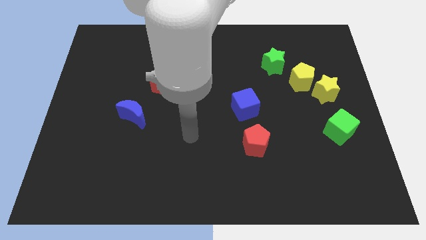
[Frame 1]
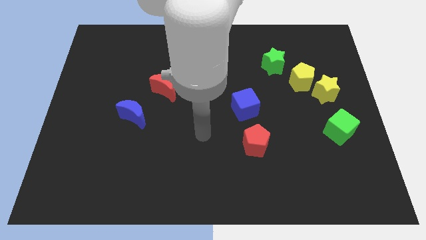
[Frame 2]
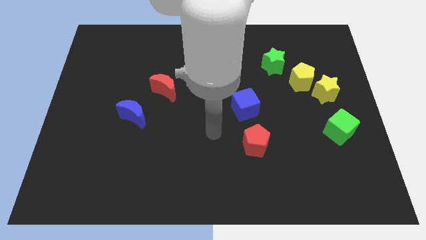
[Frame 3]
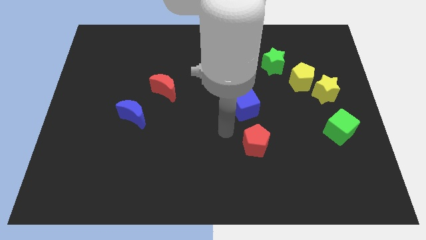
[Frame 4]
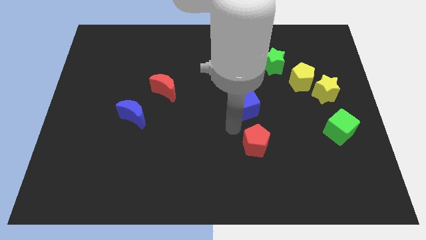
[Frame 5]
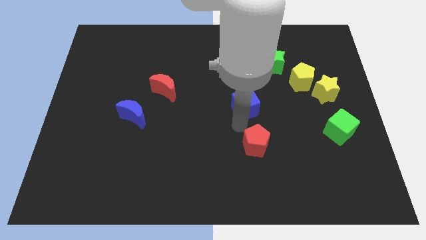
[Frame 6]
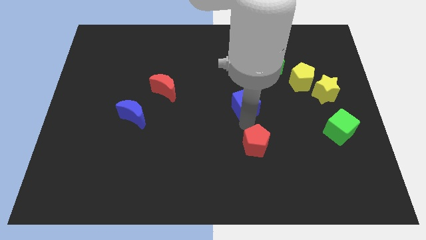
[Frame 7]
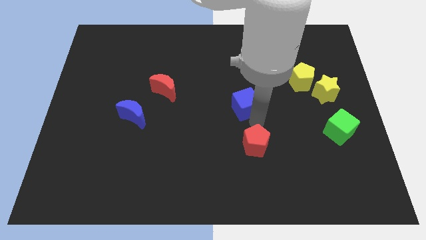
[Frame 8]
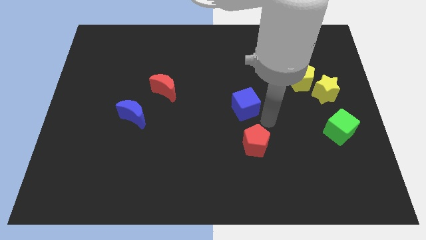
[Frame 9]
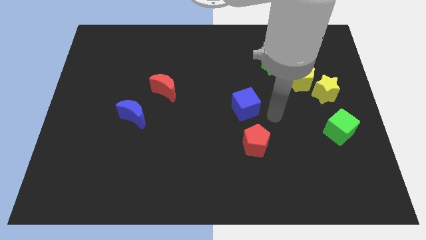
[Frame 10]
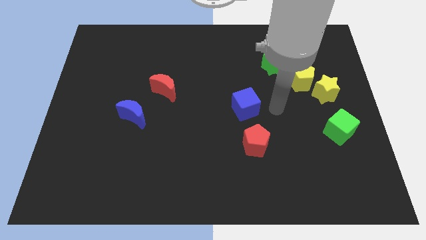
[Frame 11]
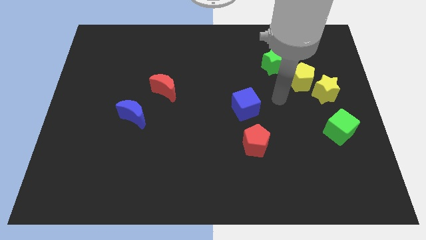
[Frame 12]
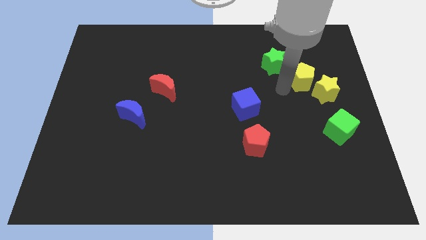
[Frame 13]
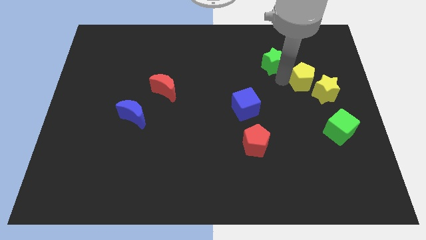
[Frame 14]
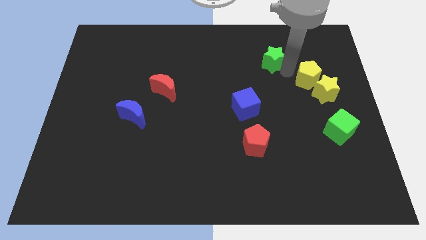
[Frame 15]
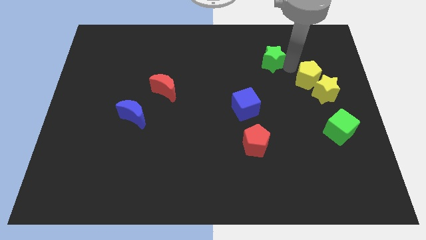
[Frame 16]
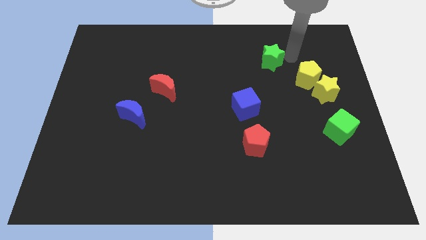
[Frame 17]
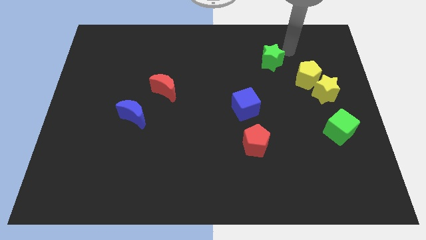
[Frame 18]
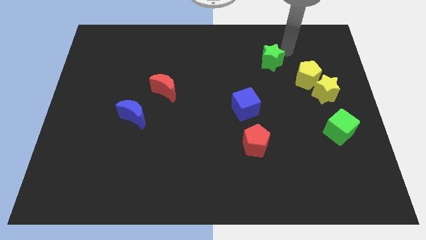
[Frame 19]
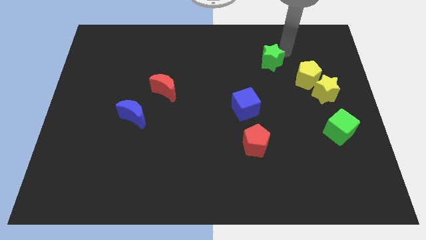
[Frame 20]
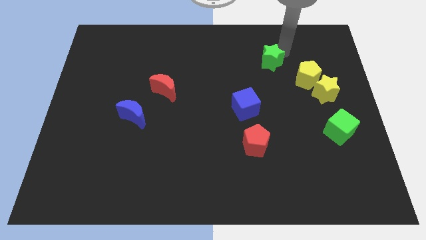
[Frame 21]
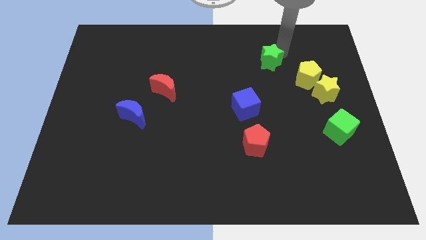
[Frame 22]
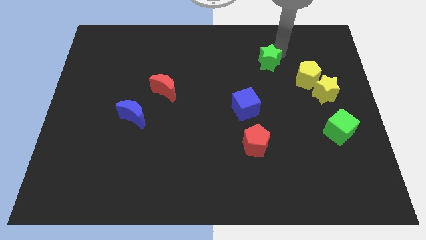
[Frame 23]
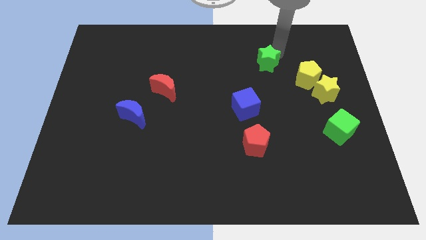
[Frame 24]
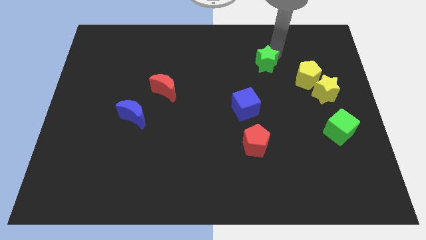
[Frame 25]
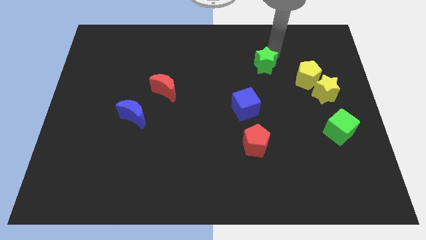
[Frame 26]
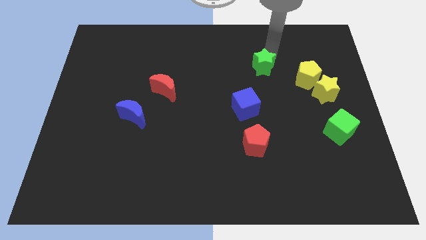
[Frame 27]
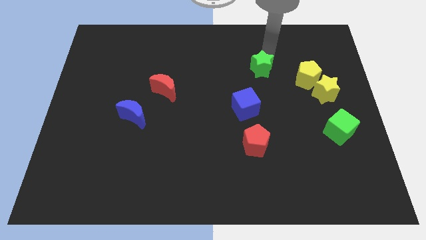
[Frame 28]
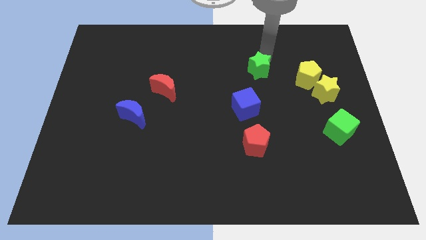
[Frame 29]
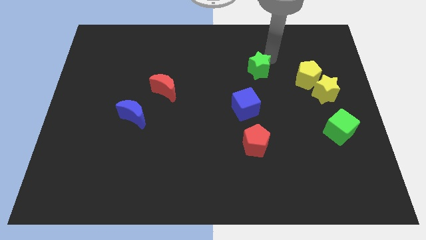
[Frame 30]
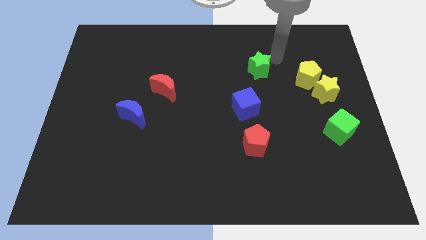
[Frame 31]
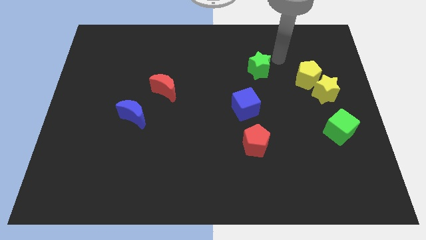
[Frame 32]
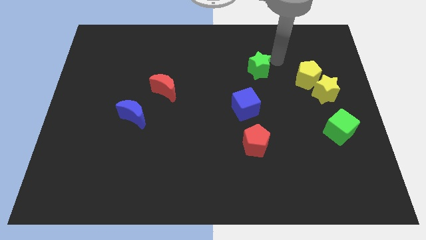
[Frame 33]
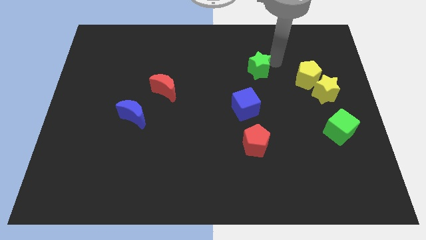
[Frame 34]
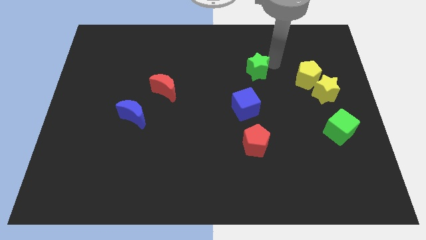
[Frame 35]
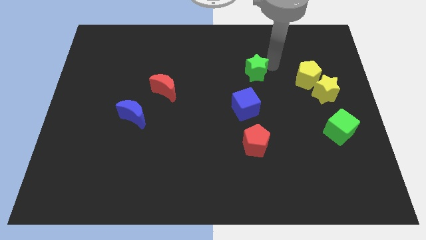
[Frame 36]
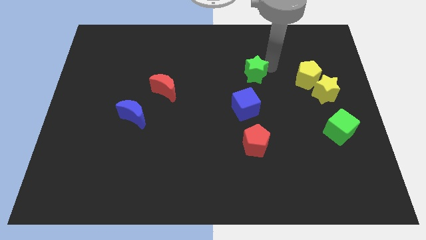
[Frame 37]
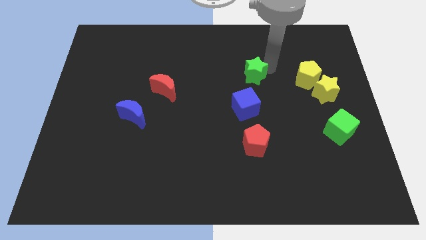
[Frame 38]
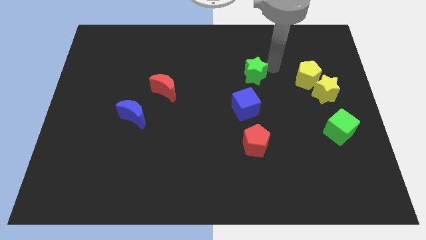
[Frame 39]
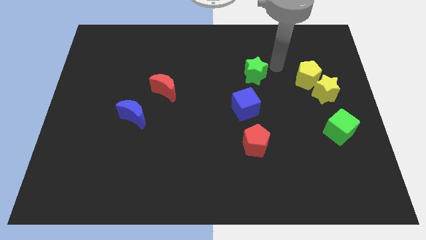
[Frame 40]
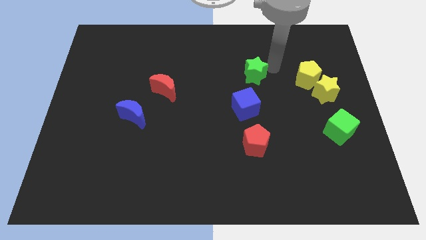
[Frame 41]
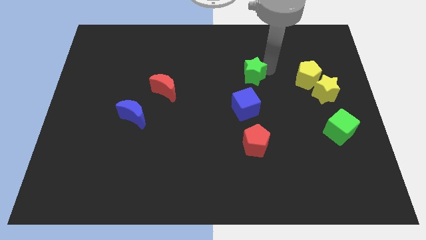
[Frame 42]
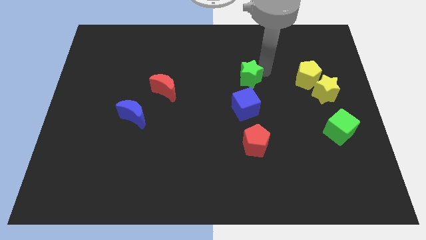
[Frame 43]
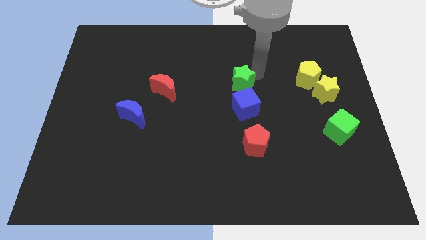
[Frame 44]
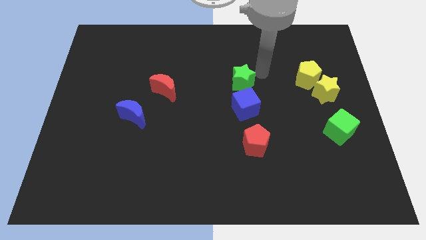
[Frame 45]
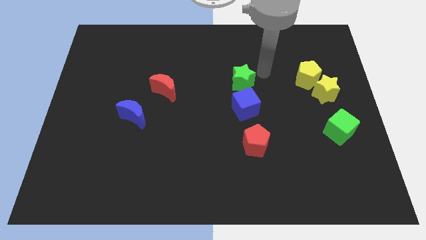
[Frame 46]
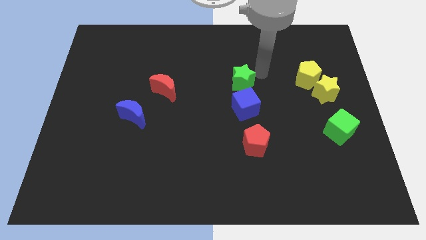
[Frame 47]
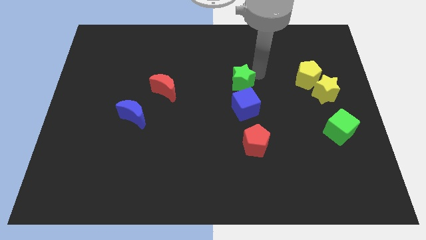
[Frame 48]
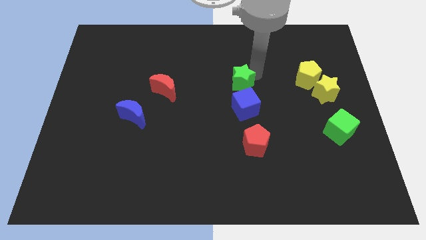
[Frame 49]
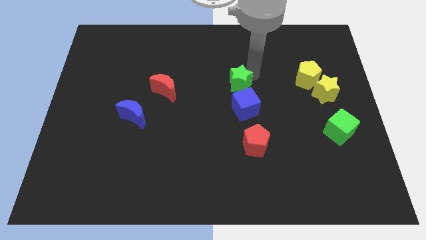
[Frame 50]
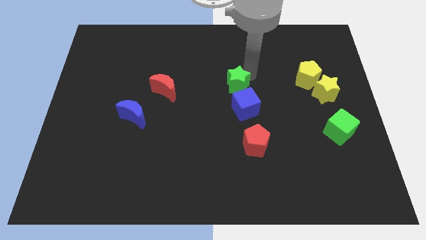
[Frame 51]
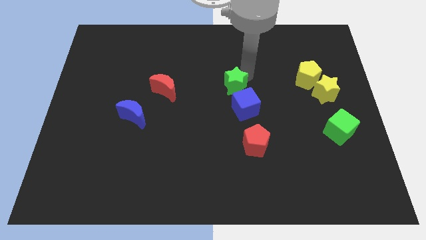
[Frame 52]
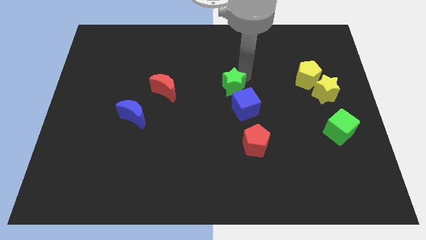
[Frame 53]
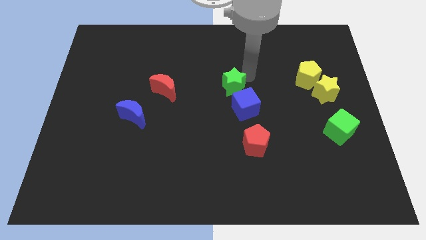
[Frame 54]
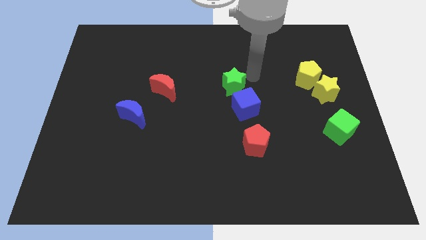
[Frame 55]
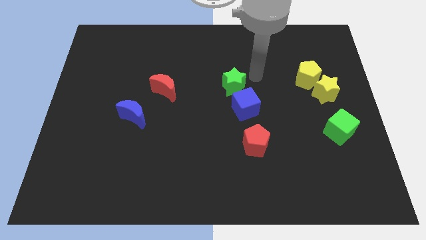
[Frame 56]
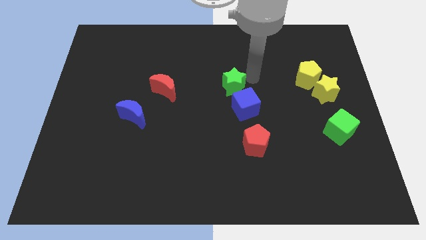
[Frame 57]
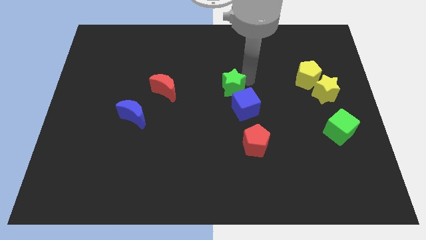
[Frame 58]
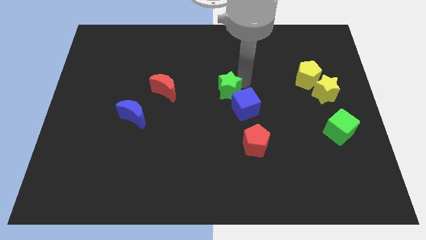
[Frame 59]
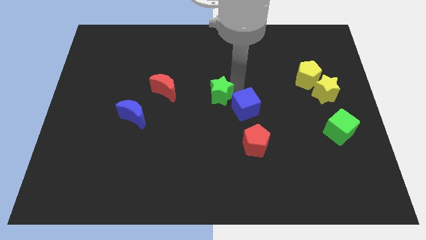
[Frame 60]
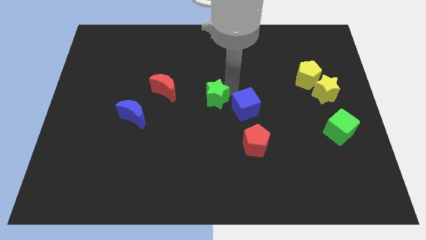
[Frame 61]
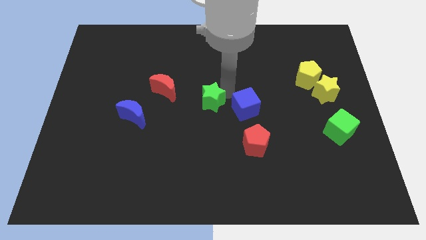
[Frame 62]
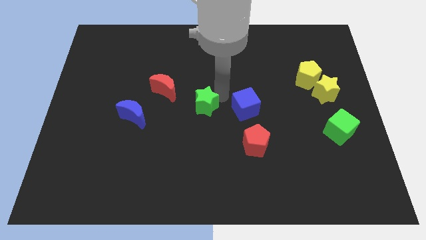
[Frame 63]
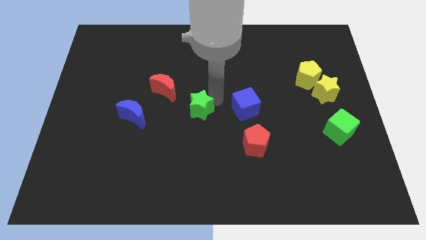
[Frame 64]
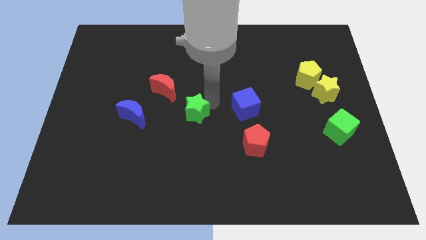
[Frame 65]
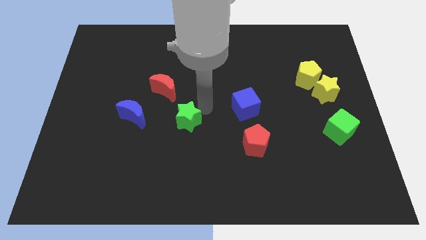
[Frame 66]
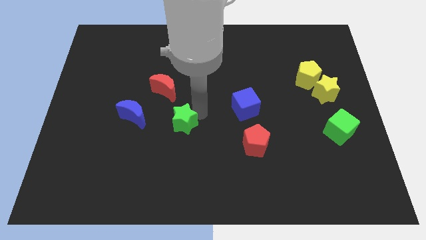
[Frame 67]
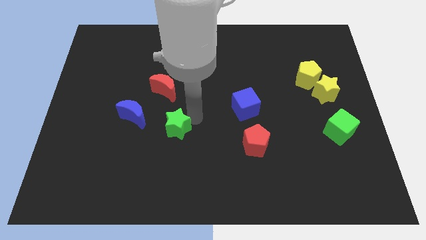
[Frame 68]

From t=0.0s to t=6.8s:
push the green star to the bottom of the red moon
